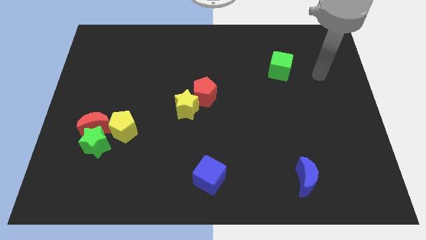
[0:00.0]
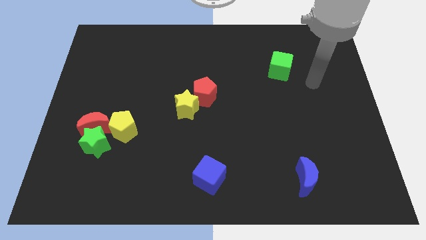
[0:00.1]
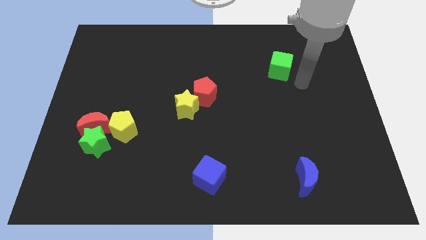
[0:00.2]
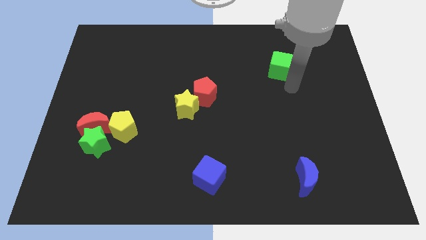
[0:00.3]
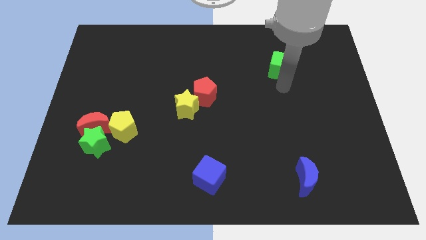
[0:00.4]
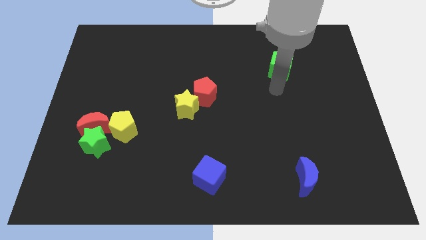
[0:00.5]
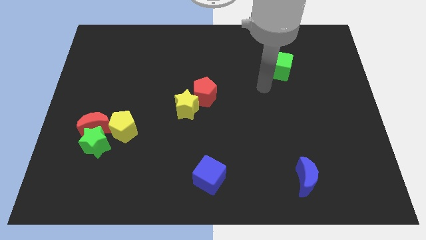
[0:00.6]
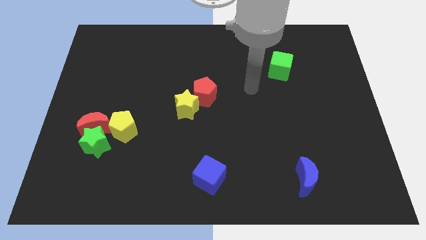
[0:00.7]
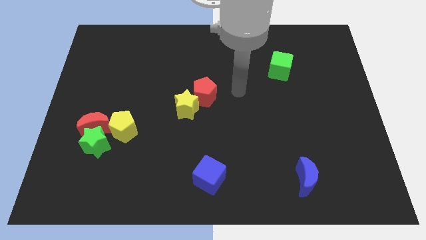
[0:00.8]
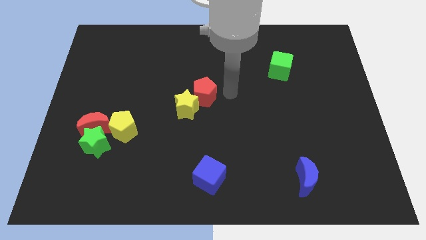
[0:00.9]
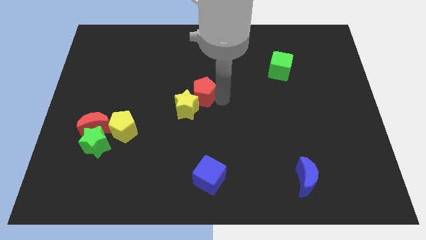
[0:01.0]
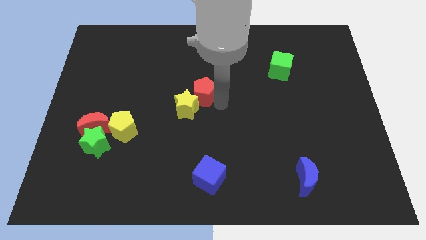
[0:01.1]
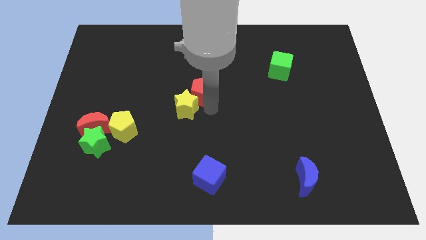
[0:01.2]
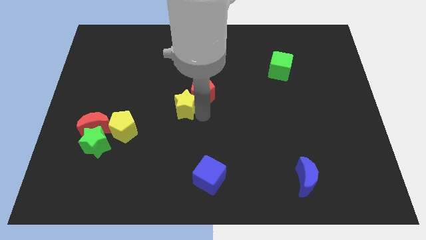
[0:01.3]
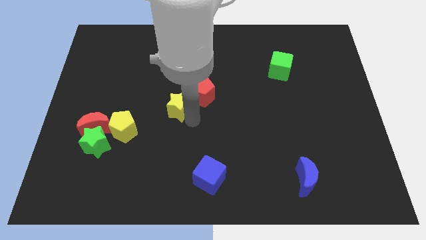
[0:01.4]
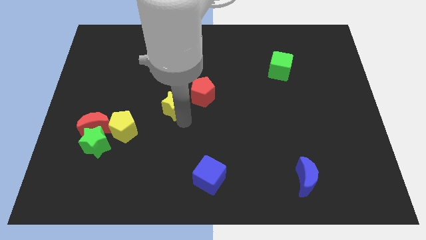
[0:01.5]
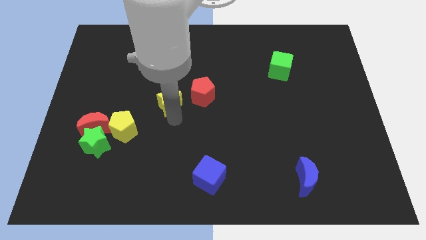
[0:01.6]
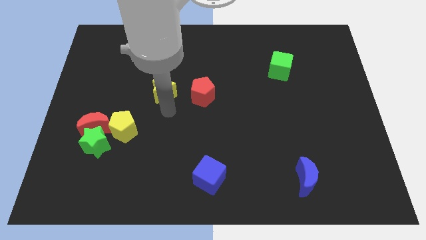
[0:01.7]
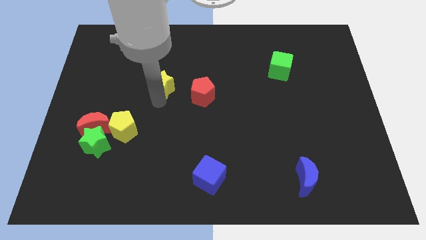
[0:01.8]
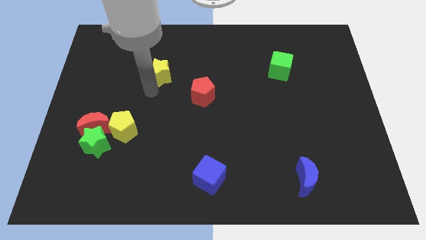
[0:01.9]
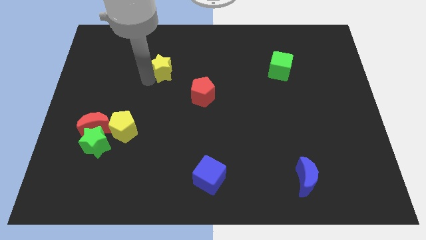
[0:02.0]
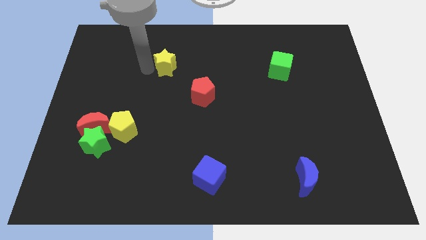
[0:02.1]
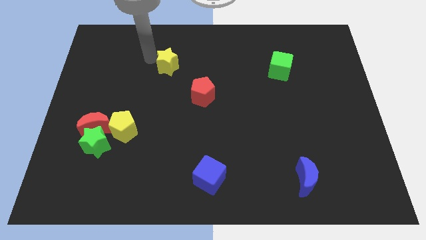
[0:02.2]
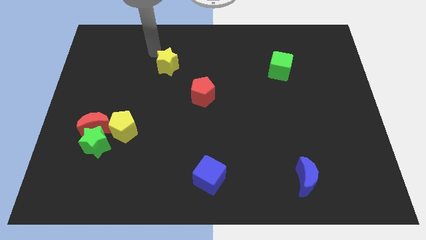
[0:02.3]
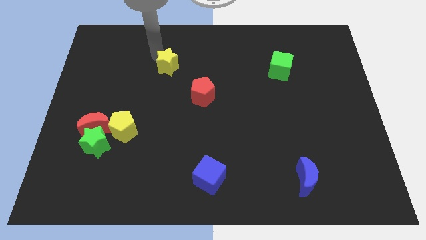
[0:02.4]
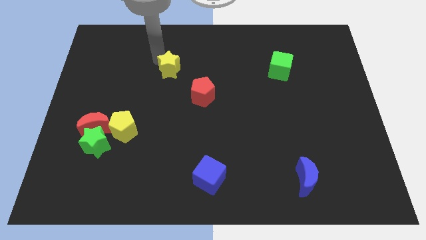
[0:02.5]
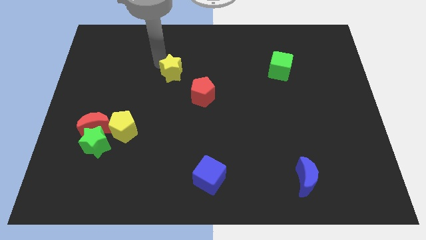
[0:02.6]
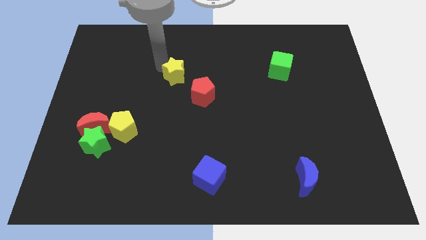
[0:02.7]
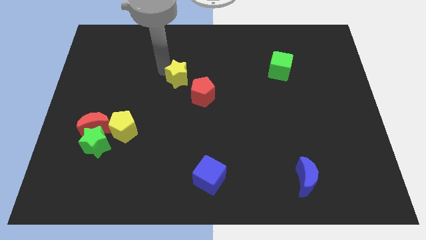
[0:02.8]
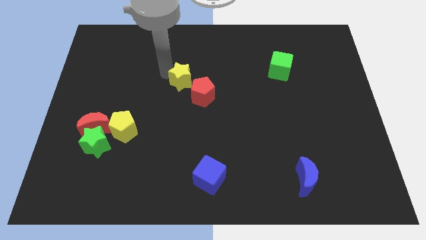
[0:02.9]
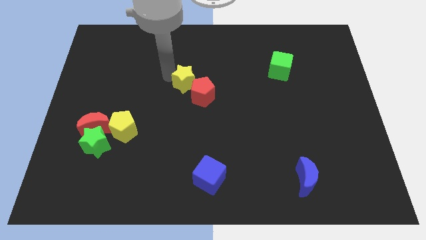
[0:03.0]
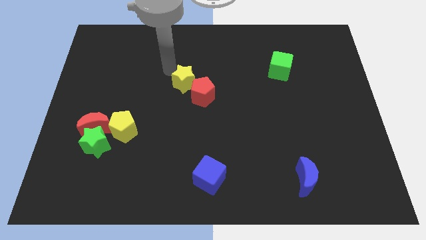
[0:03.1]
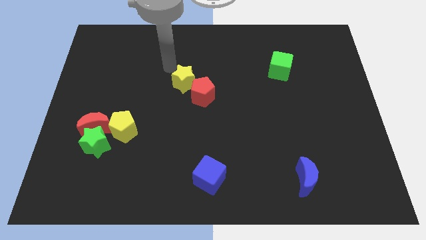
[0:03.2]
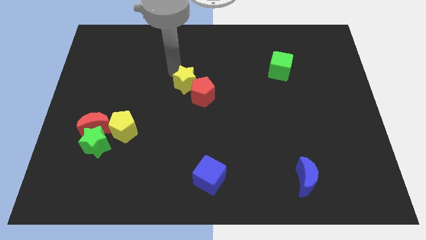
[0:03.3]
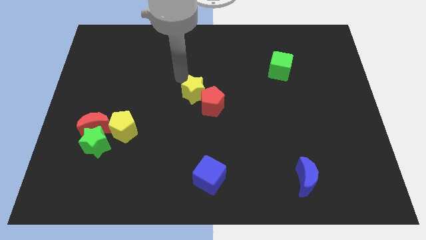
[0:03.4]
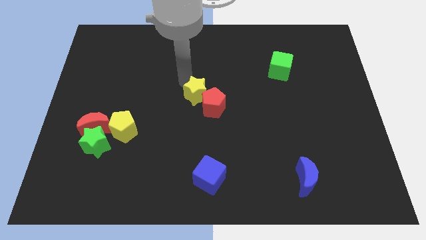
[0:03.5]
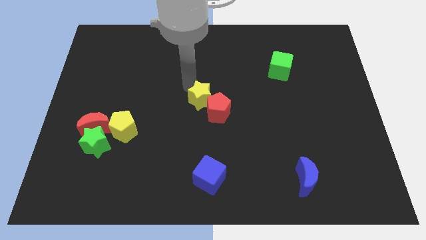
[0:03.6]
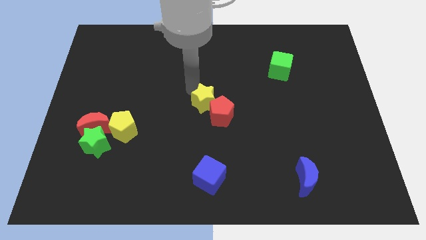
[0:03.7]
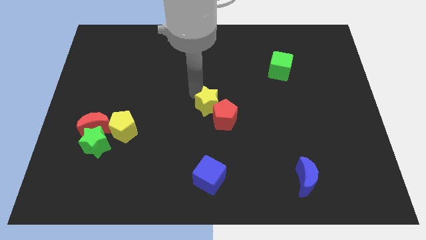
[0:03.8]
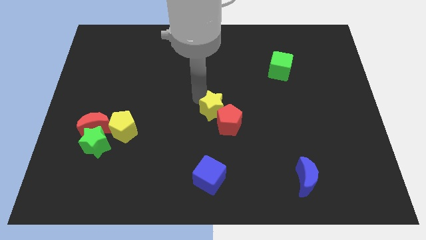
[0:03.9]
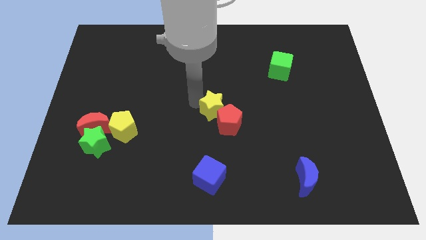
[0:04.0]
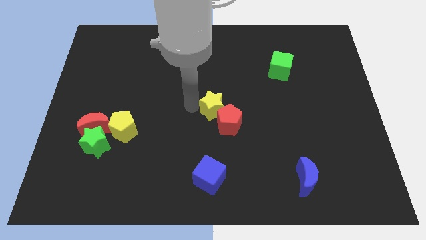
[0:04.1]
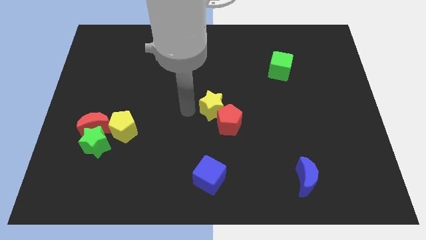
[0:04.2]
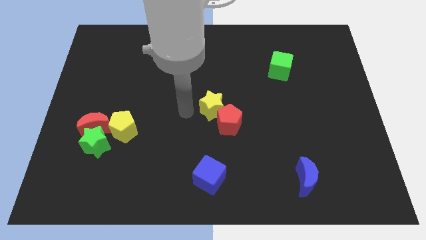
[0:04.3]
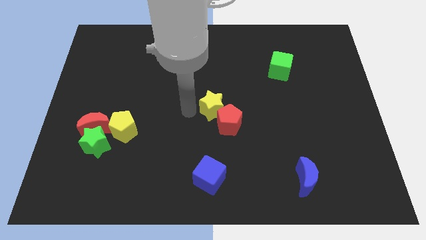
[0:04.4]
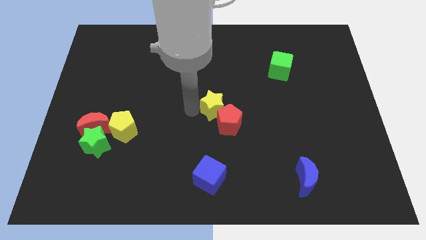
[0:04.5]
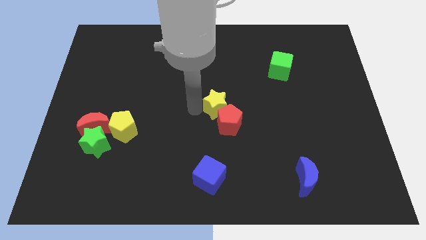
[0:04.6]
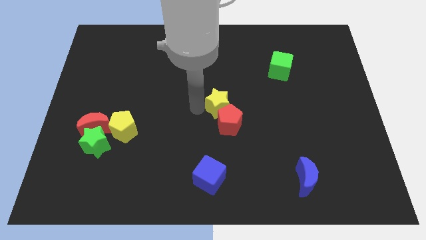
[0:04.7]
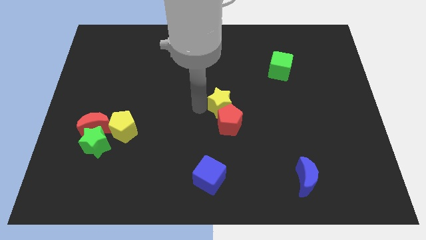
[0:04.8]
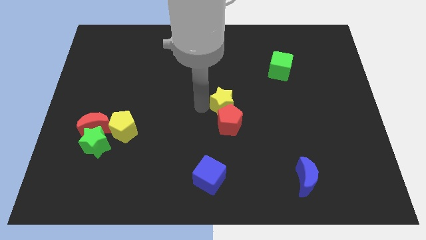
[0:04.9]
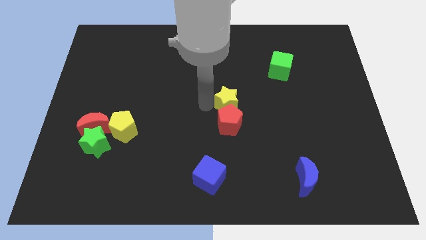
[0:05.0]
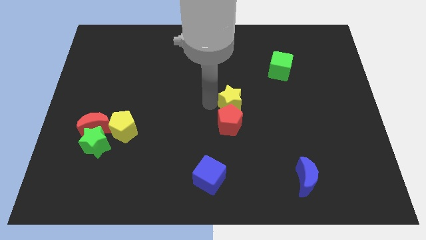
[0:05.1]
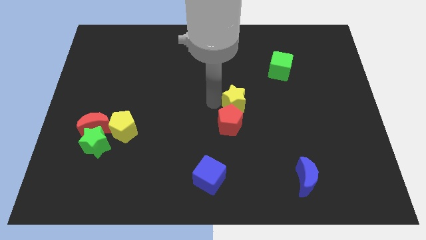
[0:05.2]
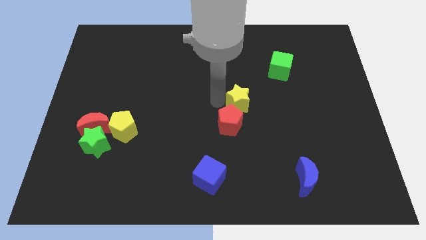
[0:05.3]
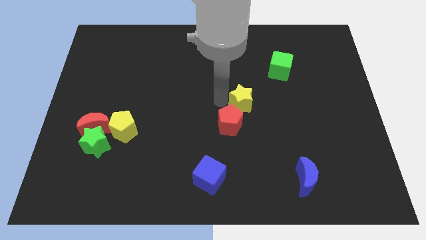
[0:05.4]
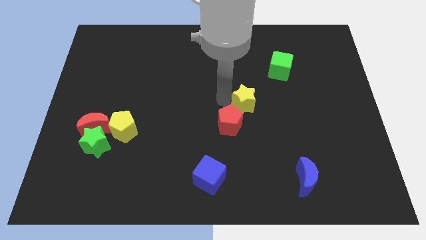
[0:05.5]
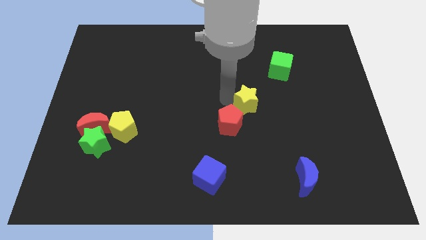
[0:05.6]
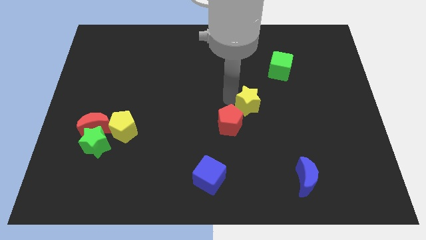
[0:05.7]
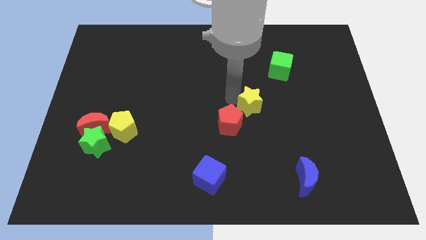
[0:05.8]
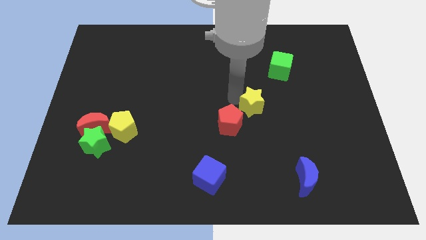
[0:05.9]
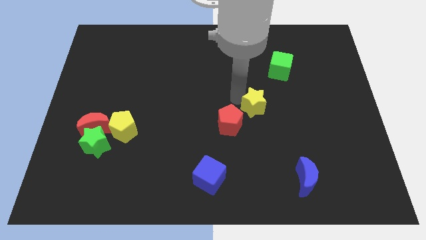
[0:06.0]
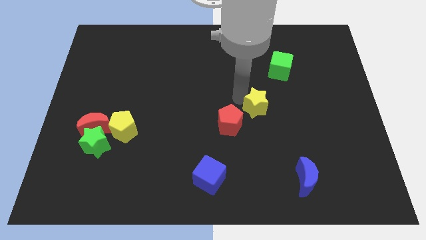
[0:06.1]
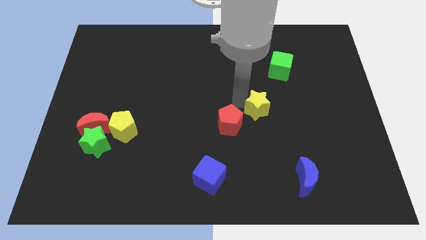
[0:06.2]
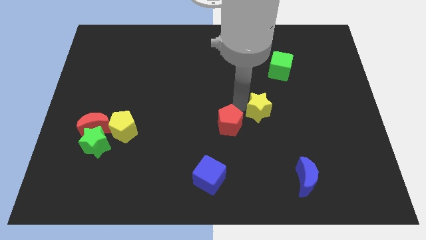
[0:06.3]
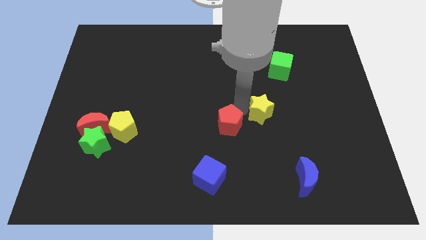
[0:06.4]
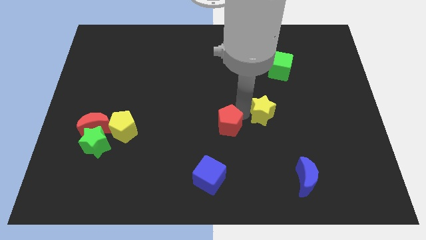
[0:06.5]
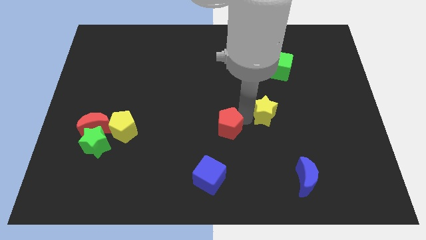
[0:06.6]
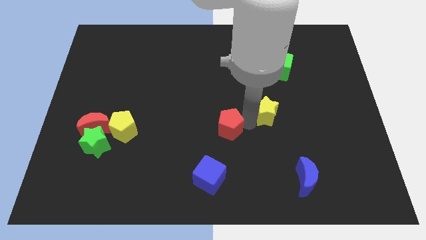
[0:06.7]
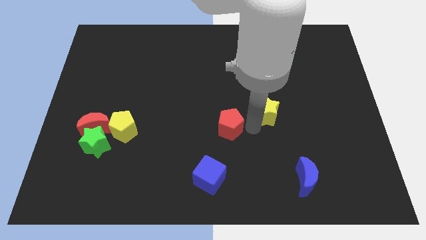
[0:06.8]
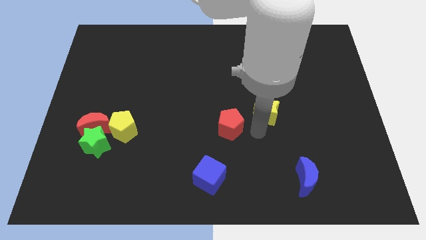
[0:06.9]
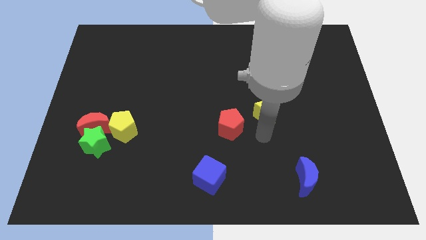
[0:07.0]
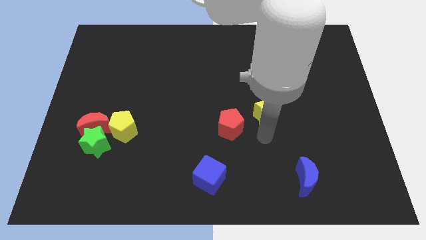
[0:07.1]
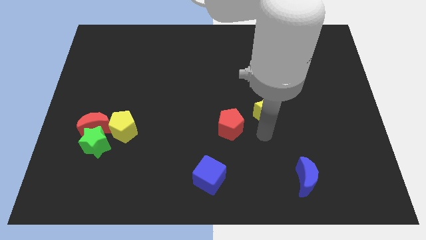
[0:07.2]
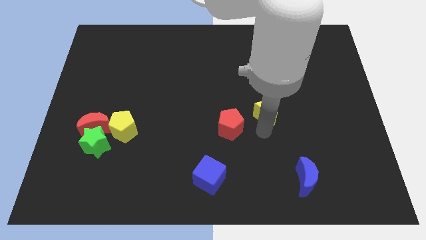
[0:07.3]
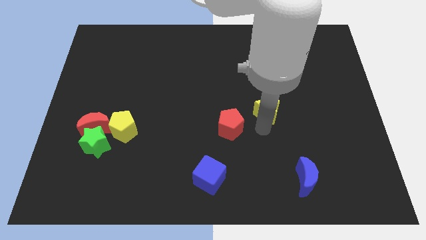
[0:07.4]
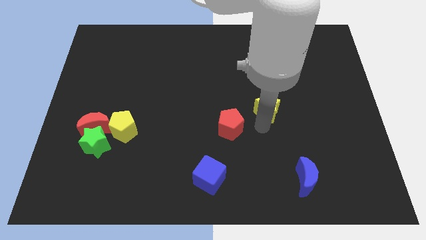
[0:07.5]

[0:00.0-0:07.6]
move the yellow star to the bottom of the green cube
